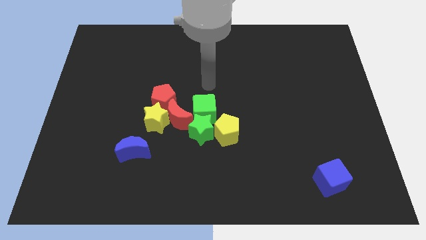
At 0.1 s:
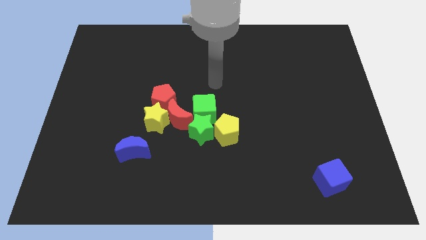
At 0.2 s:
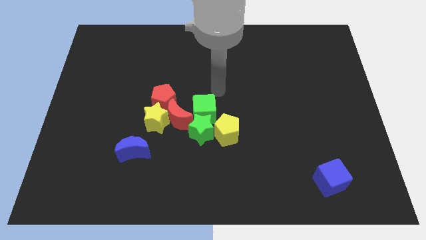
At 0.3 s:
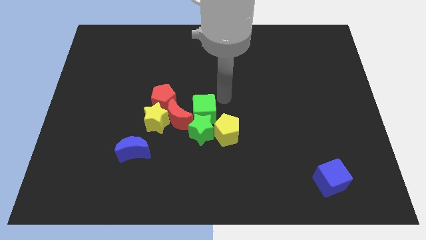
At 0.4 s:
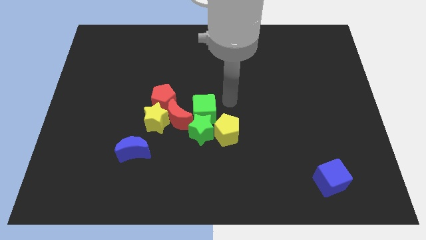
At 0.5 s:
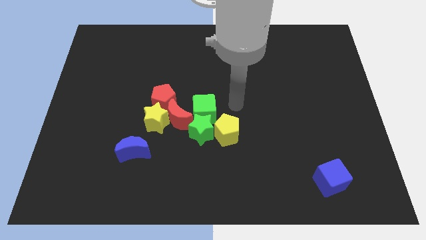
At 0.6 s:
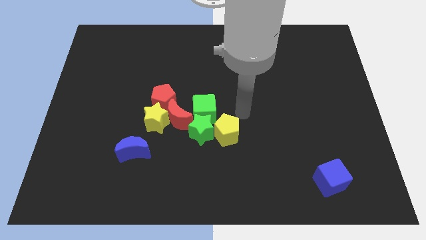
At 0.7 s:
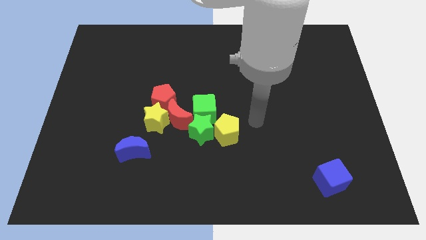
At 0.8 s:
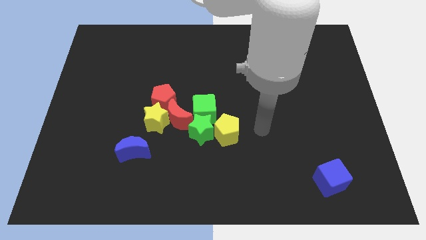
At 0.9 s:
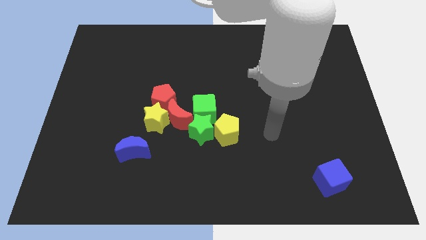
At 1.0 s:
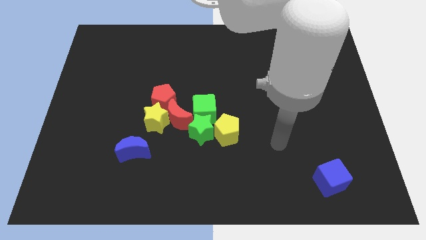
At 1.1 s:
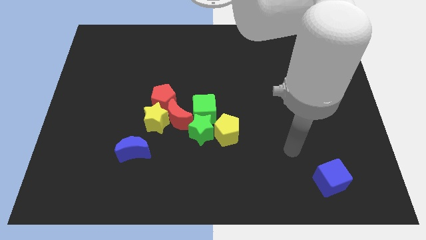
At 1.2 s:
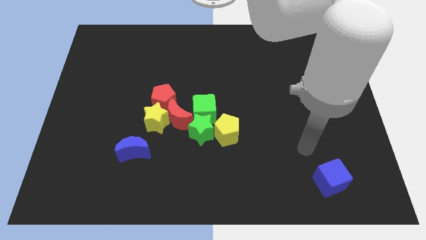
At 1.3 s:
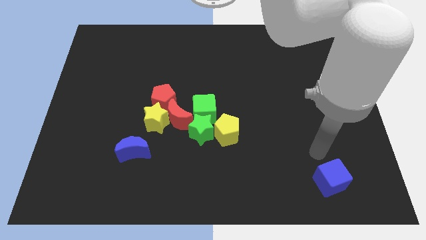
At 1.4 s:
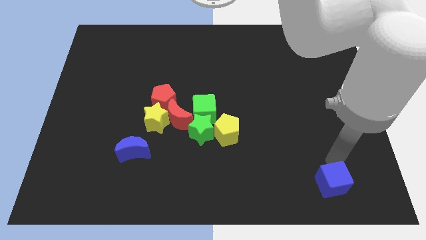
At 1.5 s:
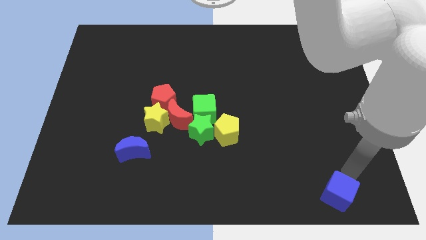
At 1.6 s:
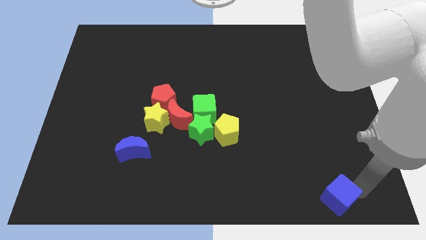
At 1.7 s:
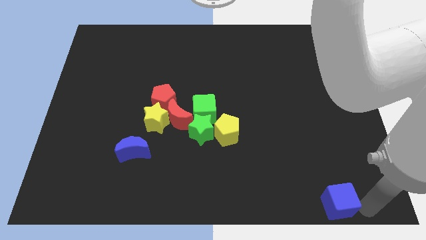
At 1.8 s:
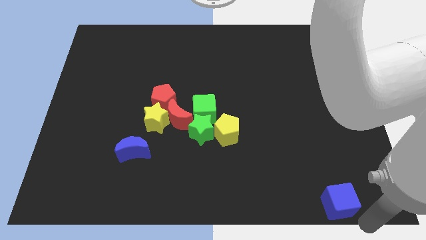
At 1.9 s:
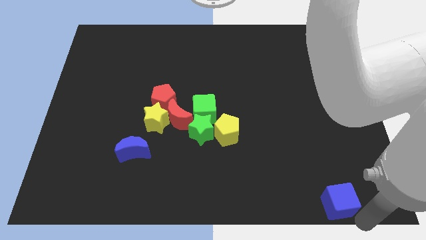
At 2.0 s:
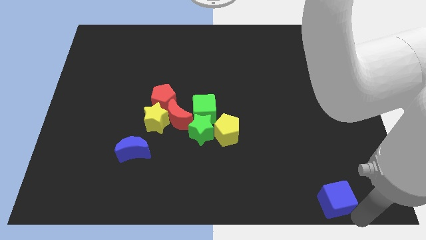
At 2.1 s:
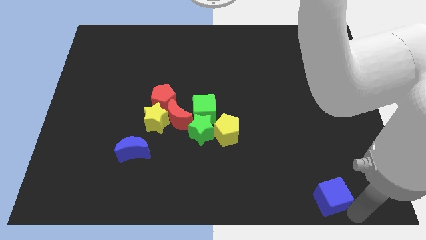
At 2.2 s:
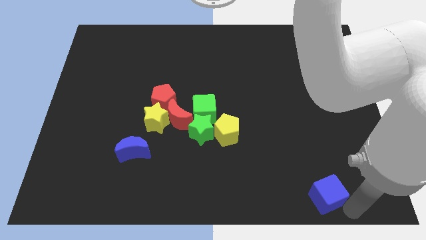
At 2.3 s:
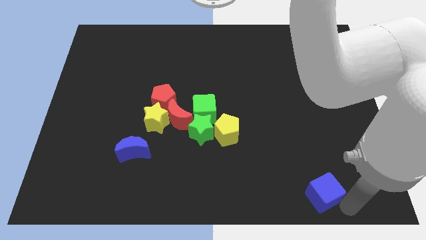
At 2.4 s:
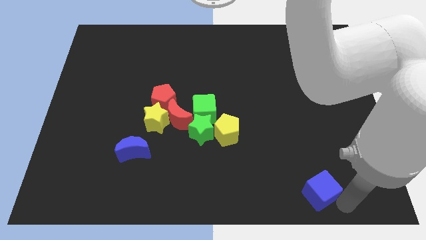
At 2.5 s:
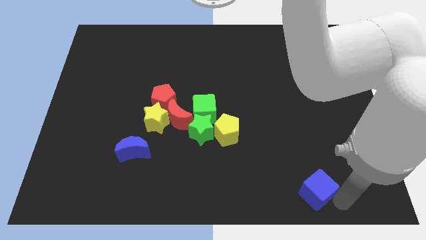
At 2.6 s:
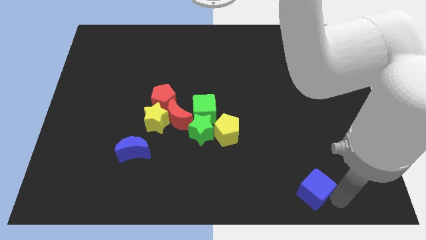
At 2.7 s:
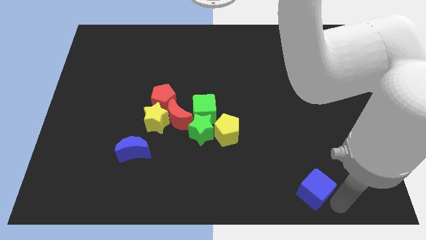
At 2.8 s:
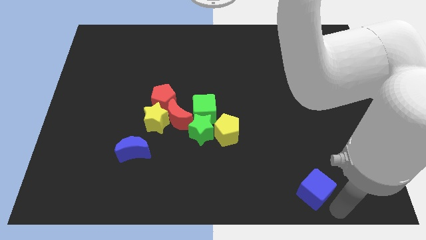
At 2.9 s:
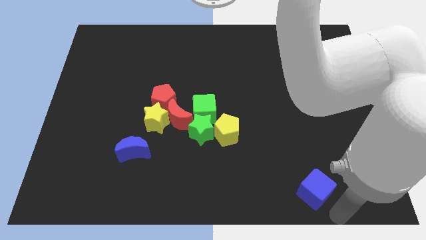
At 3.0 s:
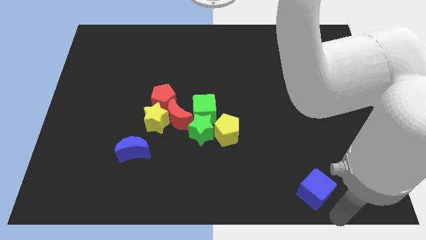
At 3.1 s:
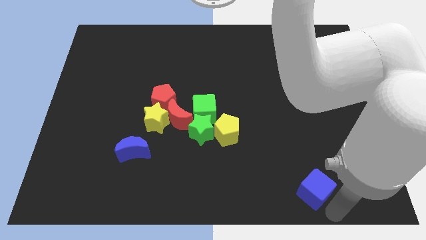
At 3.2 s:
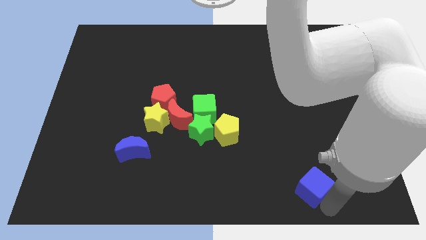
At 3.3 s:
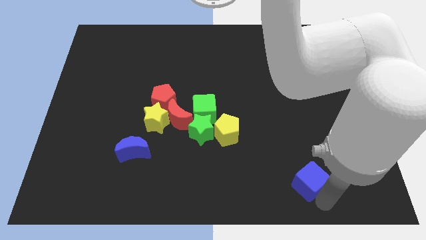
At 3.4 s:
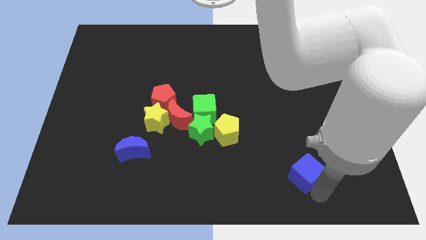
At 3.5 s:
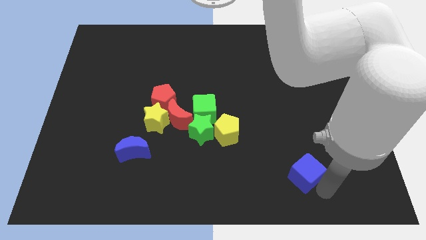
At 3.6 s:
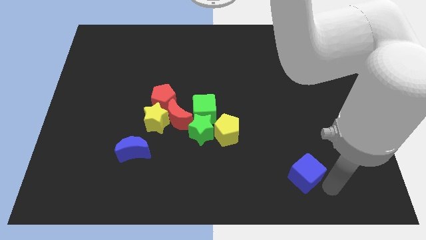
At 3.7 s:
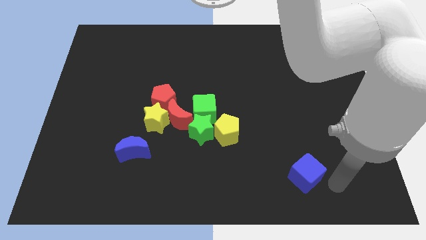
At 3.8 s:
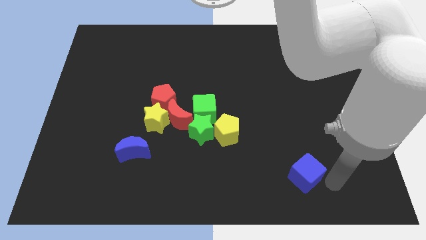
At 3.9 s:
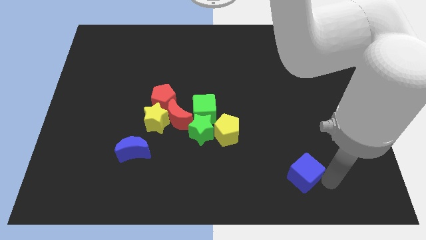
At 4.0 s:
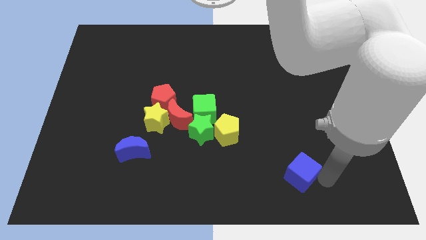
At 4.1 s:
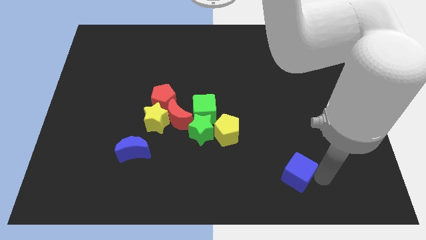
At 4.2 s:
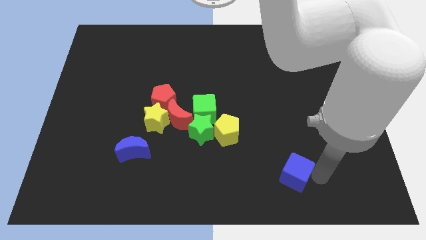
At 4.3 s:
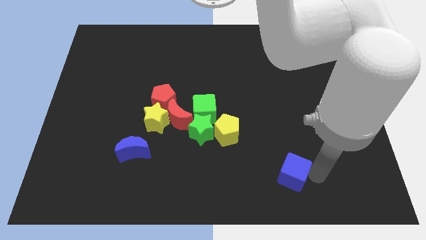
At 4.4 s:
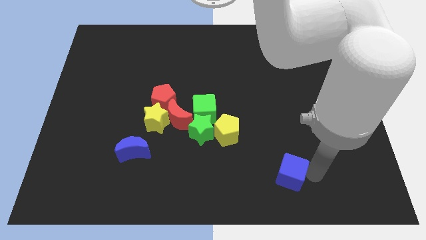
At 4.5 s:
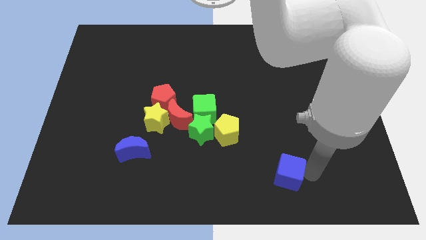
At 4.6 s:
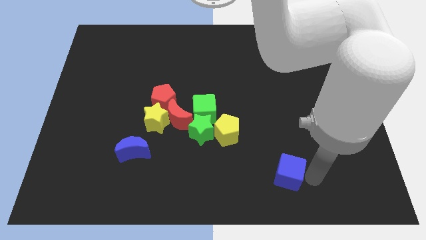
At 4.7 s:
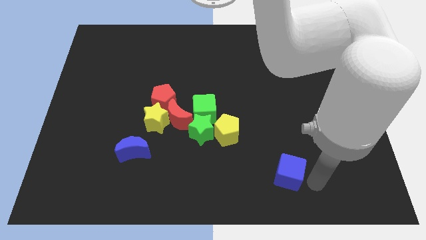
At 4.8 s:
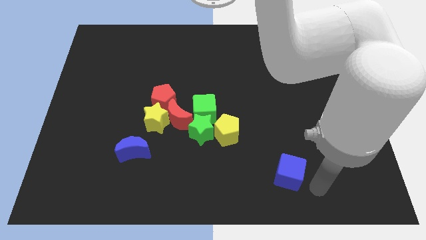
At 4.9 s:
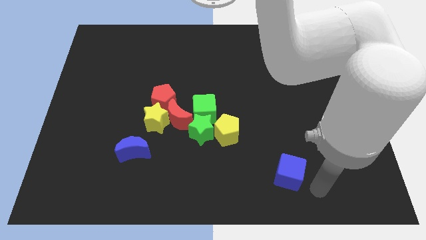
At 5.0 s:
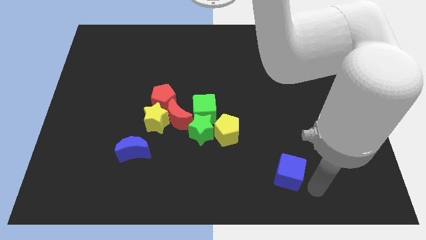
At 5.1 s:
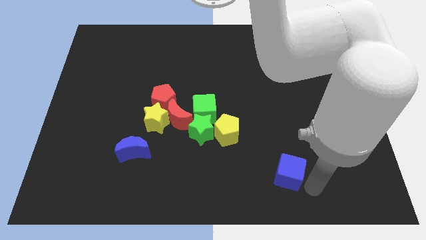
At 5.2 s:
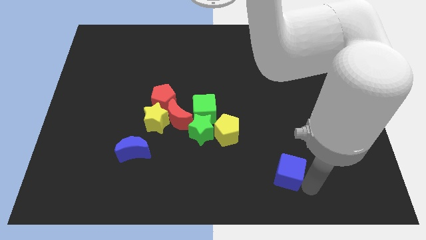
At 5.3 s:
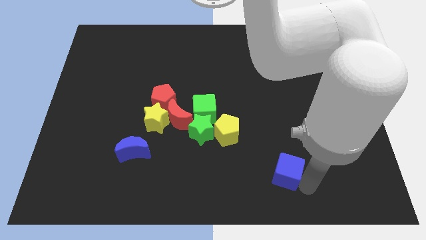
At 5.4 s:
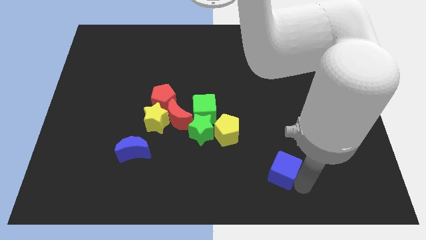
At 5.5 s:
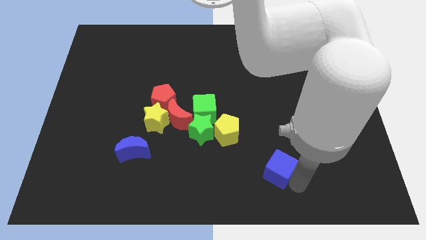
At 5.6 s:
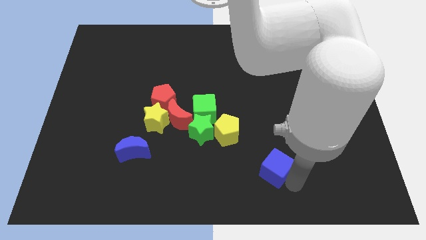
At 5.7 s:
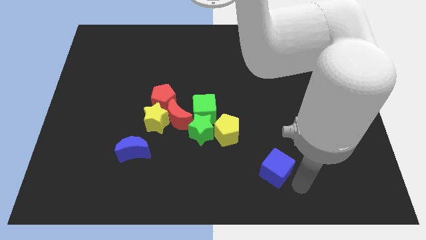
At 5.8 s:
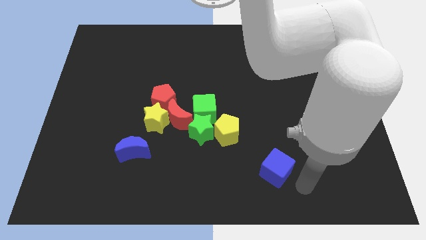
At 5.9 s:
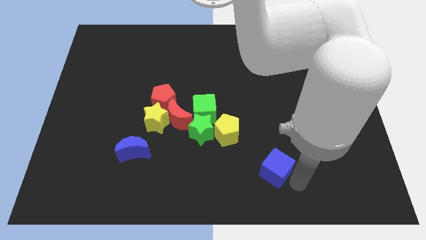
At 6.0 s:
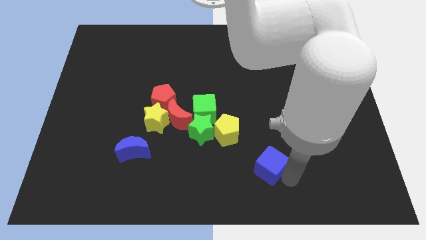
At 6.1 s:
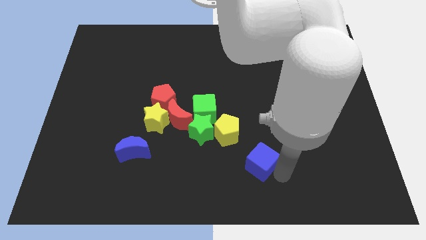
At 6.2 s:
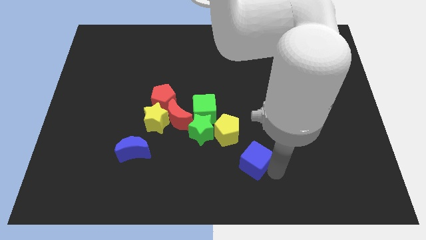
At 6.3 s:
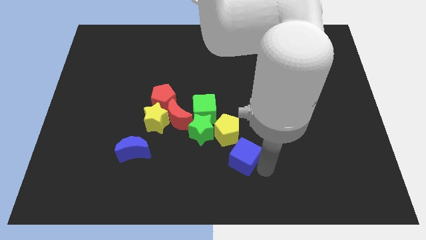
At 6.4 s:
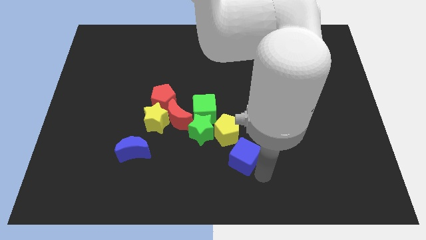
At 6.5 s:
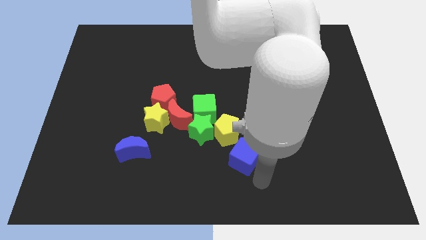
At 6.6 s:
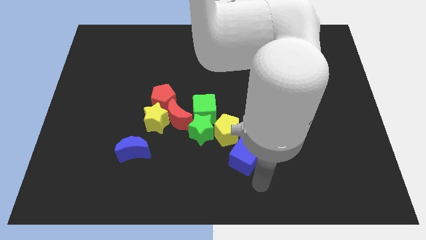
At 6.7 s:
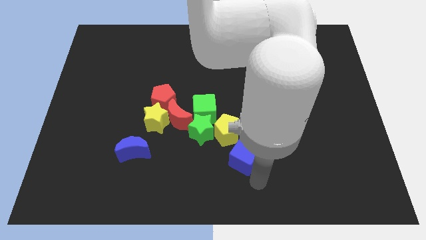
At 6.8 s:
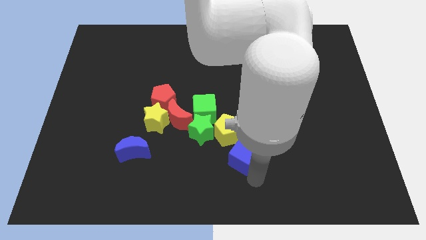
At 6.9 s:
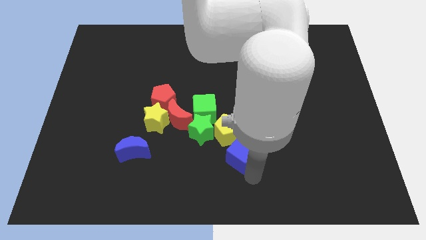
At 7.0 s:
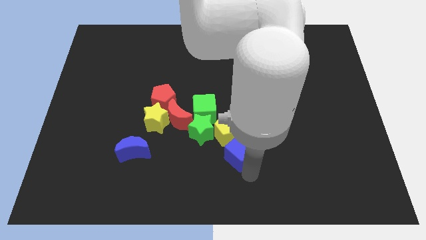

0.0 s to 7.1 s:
slide the blue cube close to the yellow pentagon
